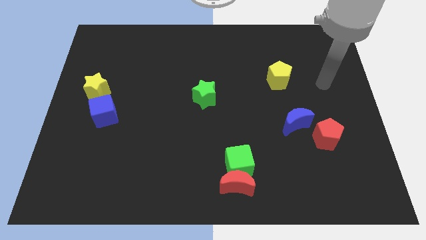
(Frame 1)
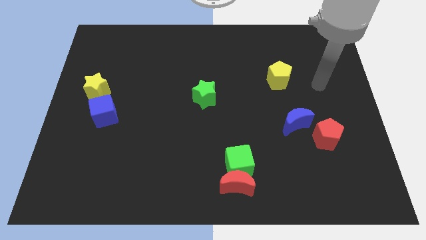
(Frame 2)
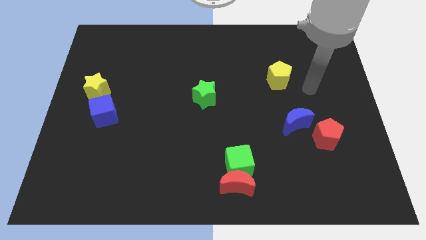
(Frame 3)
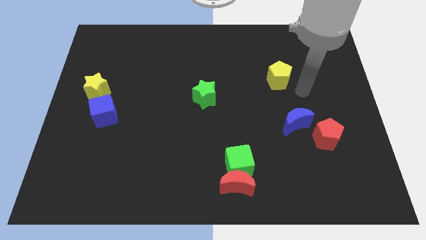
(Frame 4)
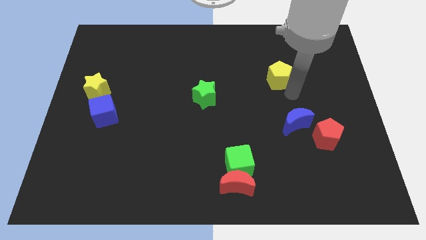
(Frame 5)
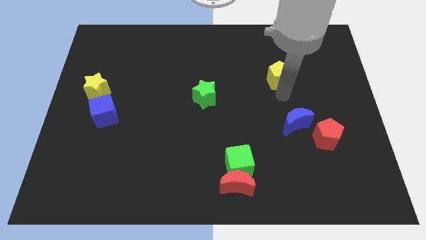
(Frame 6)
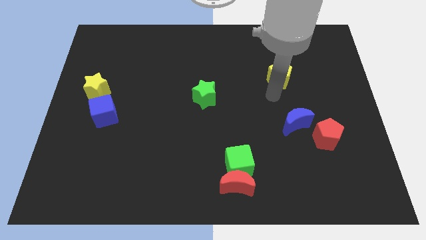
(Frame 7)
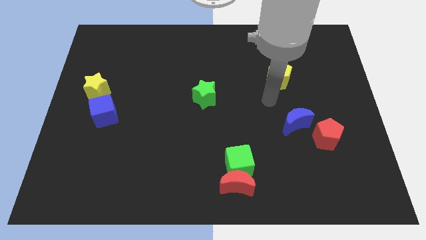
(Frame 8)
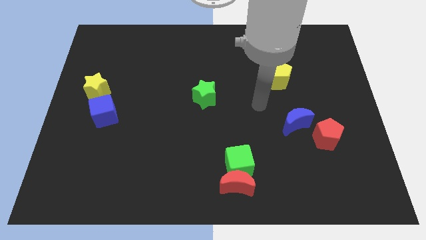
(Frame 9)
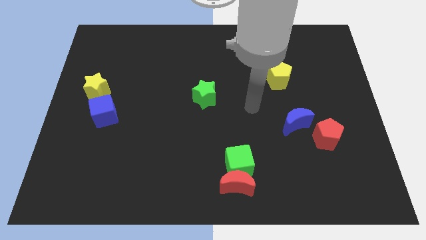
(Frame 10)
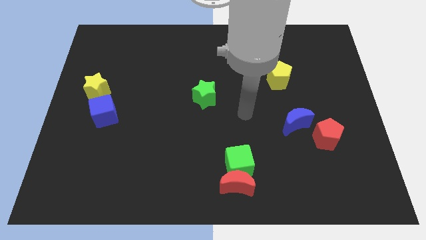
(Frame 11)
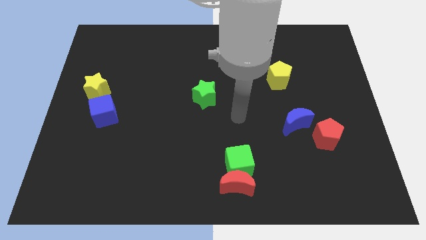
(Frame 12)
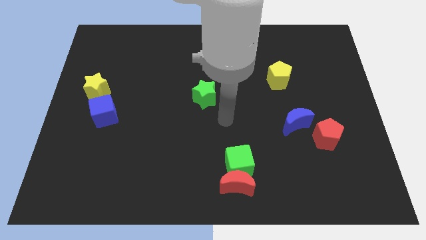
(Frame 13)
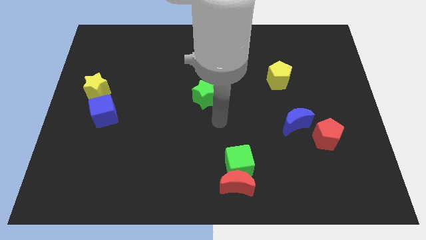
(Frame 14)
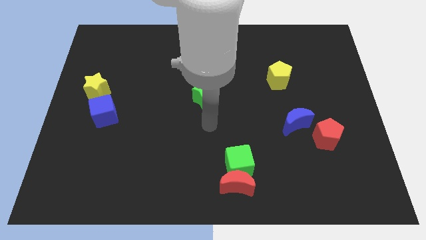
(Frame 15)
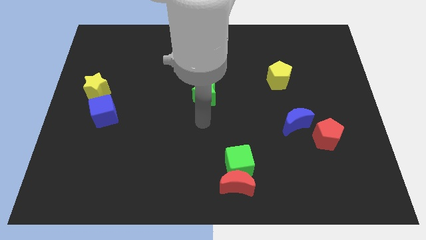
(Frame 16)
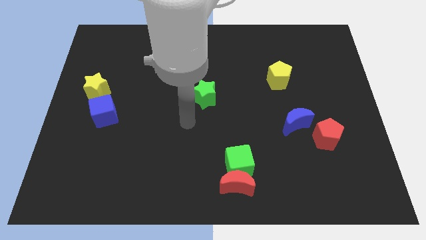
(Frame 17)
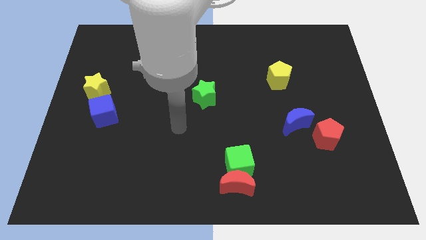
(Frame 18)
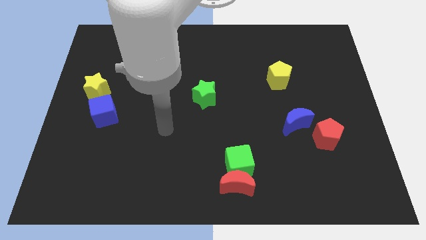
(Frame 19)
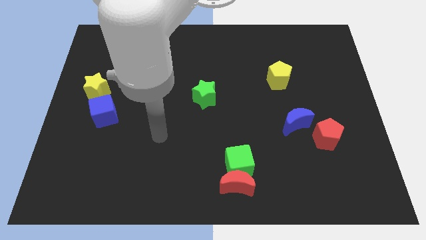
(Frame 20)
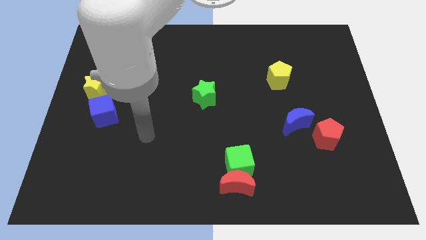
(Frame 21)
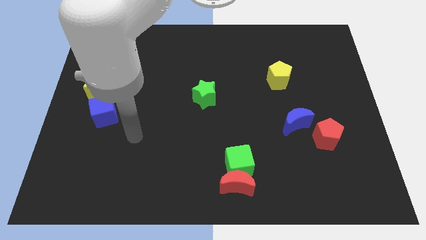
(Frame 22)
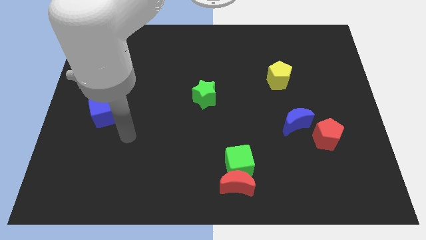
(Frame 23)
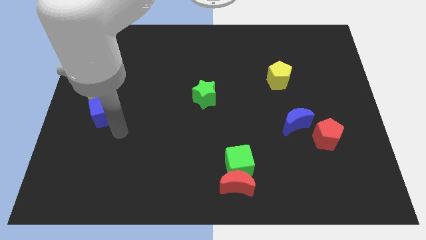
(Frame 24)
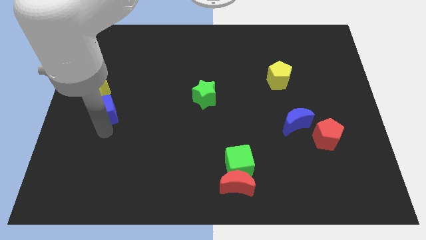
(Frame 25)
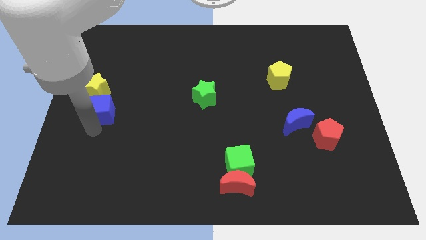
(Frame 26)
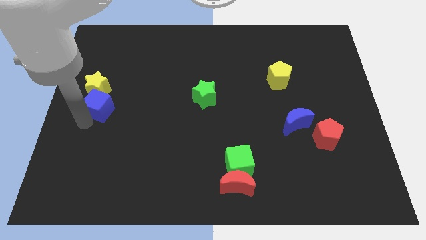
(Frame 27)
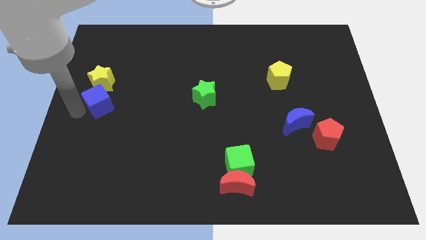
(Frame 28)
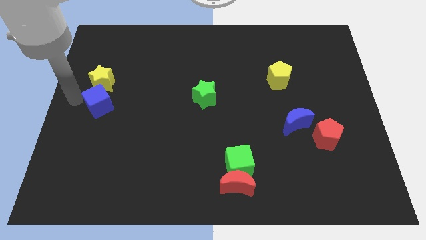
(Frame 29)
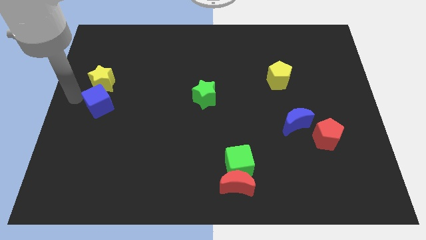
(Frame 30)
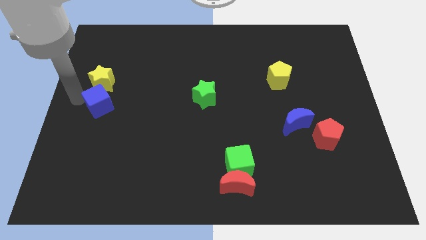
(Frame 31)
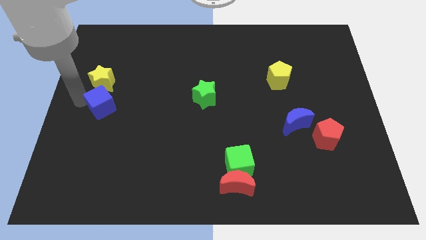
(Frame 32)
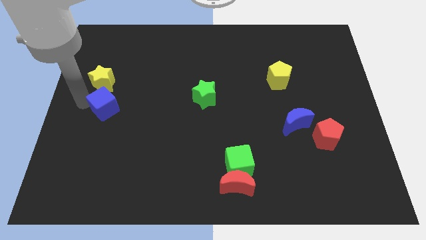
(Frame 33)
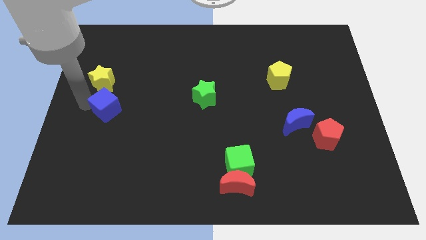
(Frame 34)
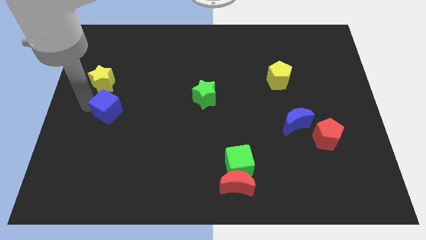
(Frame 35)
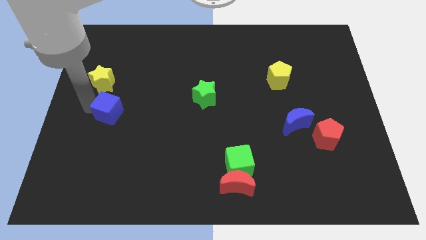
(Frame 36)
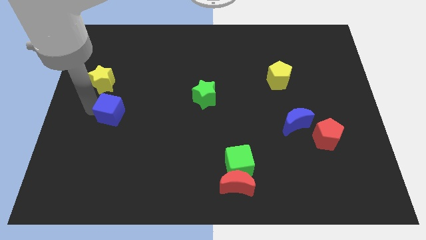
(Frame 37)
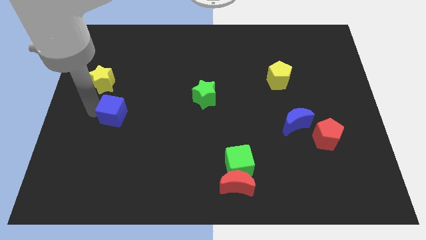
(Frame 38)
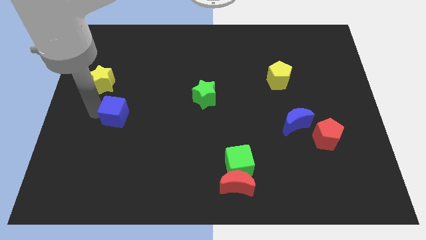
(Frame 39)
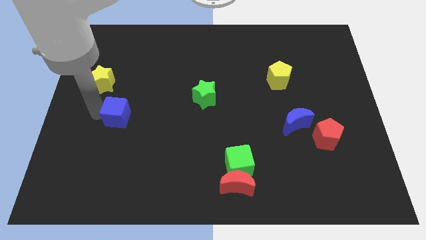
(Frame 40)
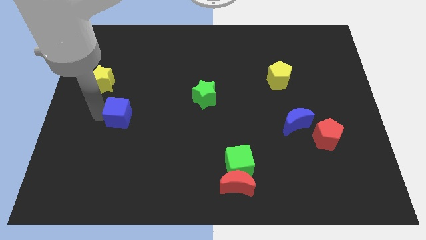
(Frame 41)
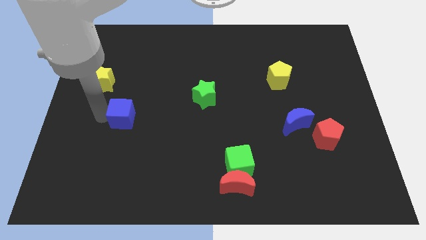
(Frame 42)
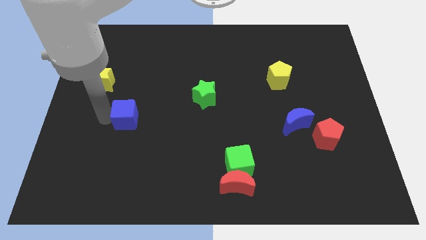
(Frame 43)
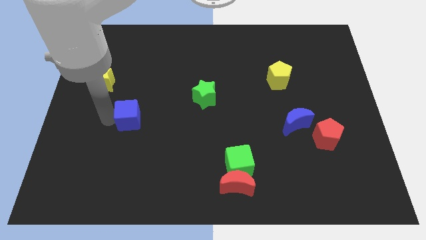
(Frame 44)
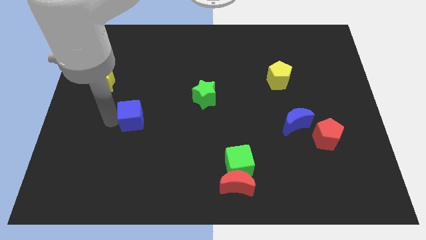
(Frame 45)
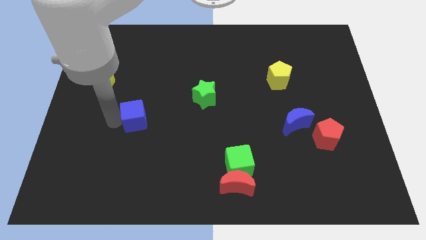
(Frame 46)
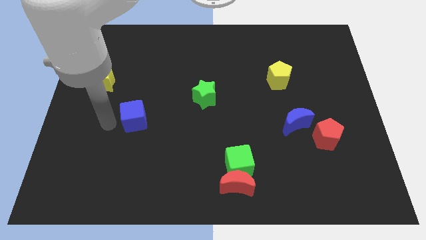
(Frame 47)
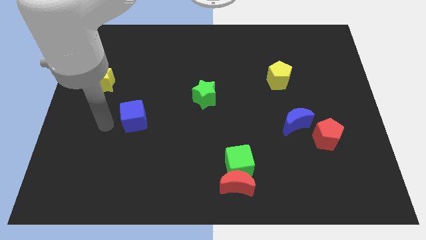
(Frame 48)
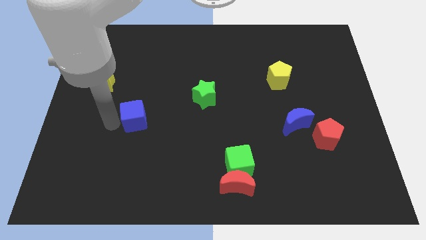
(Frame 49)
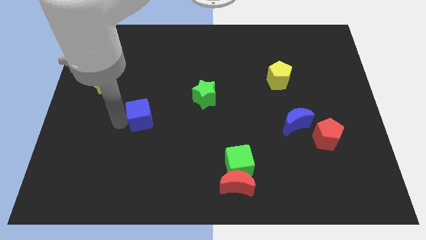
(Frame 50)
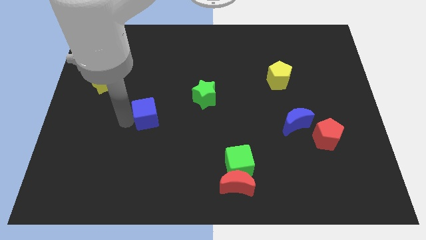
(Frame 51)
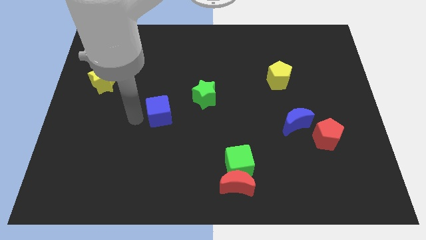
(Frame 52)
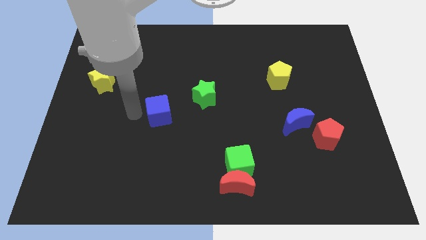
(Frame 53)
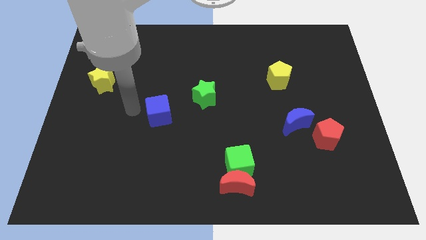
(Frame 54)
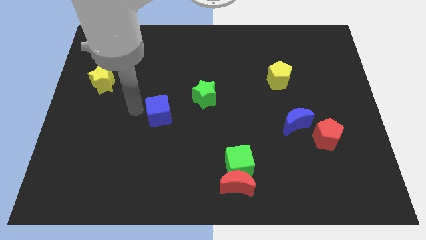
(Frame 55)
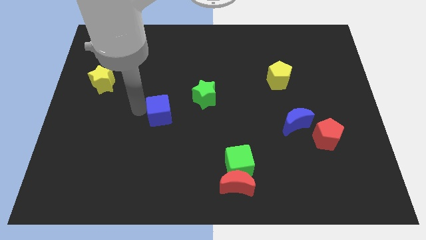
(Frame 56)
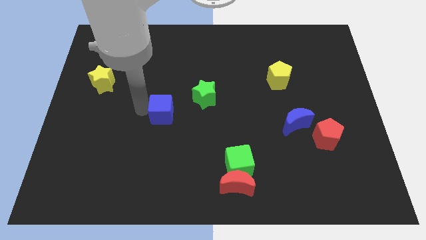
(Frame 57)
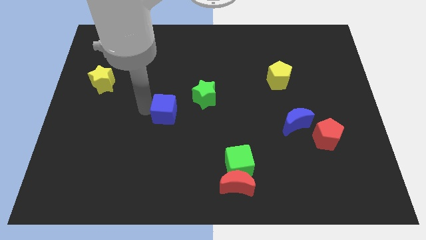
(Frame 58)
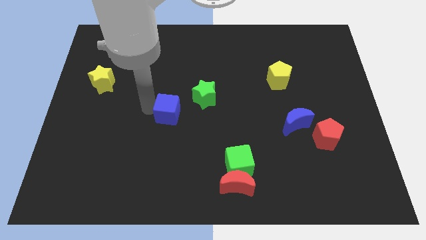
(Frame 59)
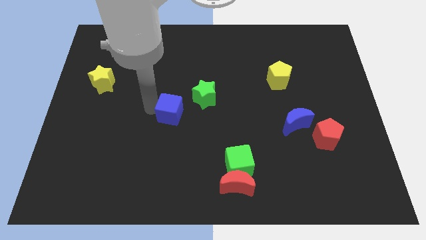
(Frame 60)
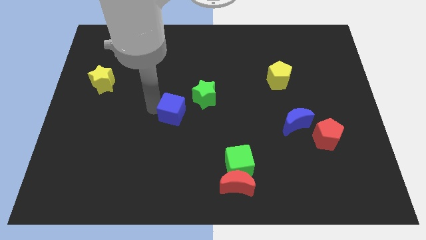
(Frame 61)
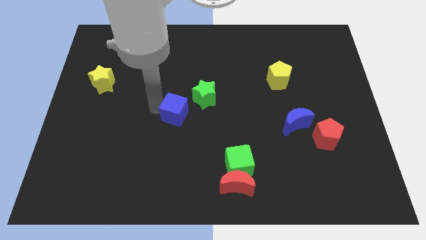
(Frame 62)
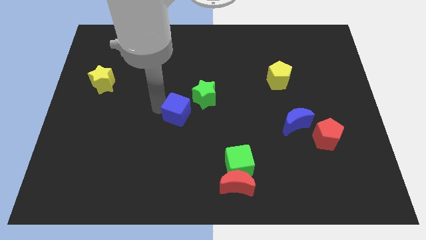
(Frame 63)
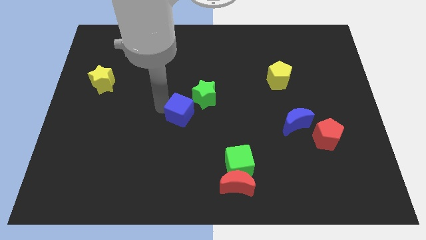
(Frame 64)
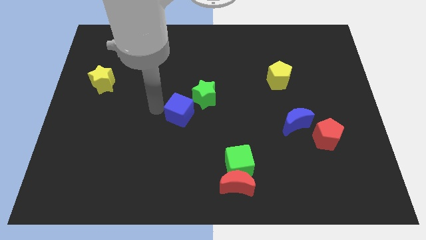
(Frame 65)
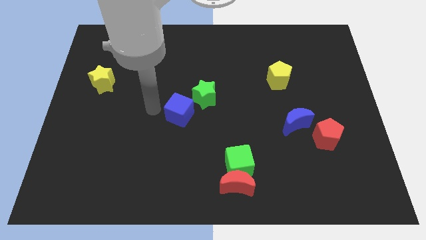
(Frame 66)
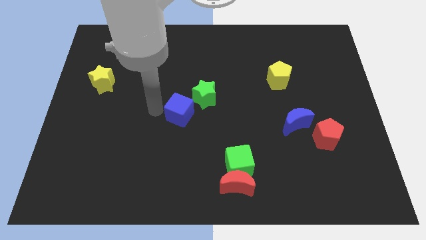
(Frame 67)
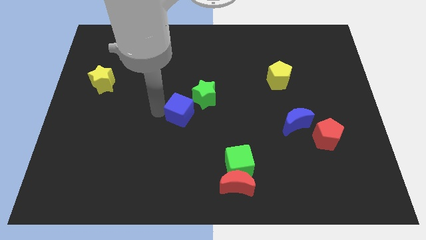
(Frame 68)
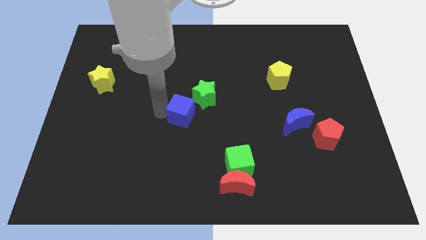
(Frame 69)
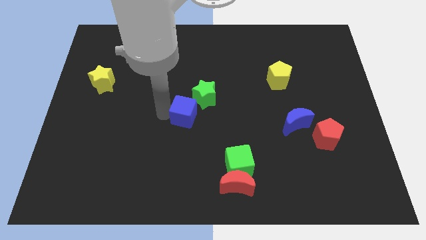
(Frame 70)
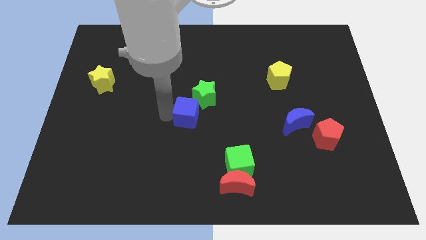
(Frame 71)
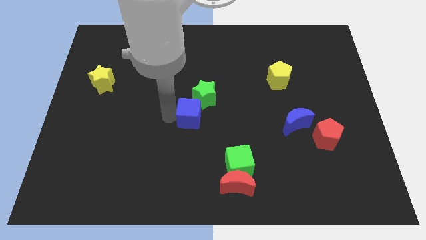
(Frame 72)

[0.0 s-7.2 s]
slide the blue cube to the right

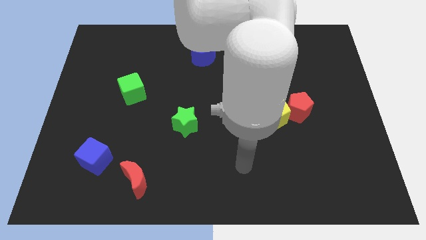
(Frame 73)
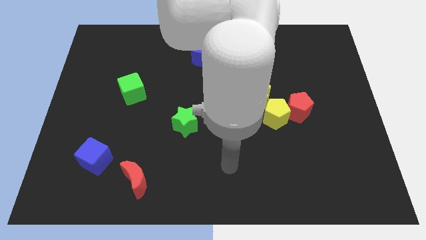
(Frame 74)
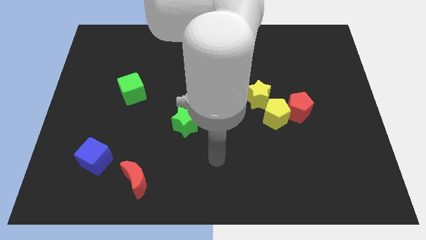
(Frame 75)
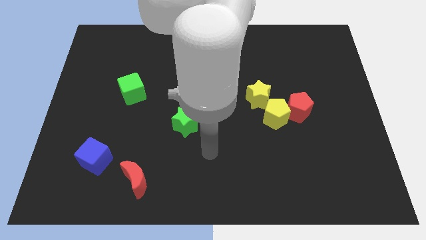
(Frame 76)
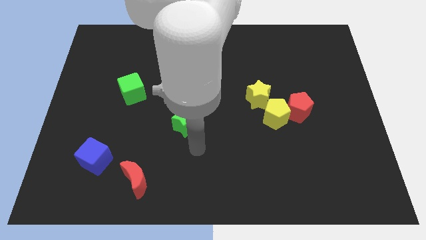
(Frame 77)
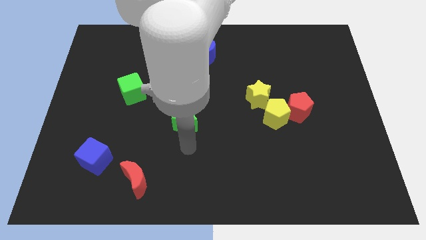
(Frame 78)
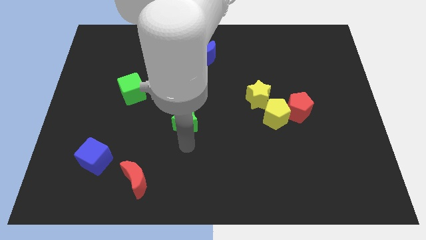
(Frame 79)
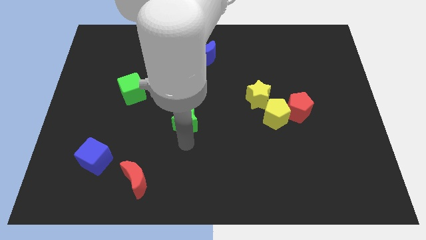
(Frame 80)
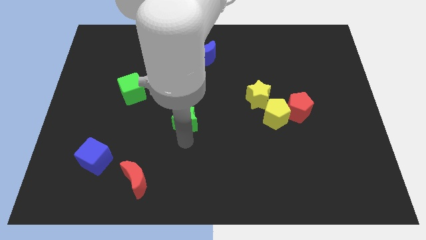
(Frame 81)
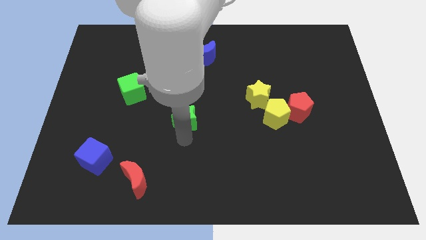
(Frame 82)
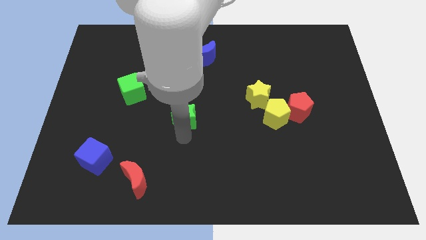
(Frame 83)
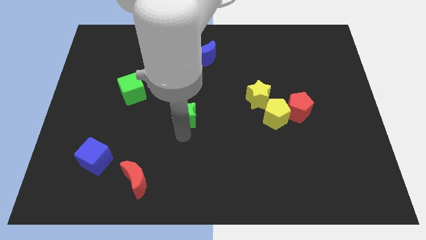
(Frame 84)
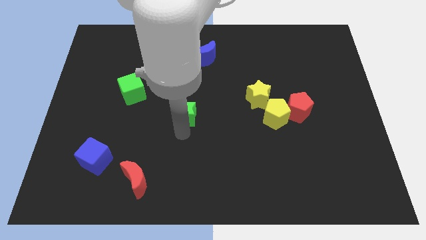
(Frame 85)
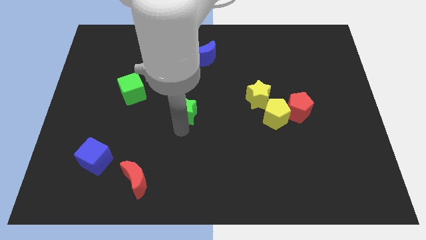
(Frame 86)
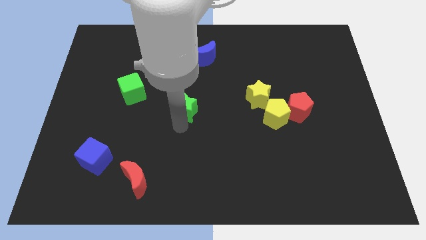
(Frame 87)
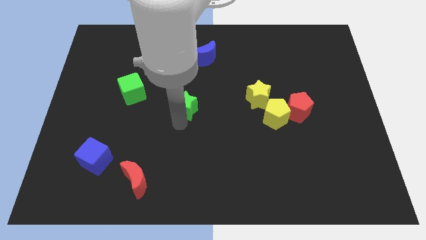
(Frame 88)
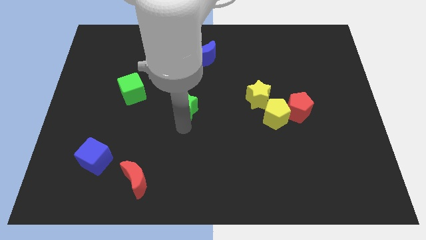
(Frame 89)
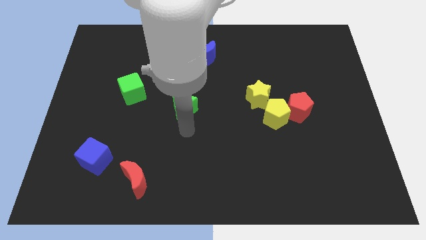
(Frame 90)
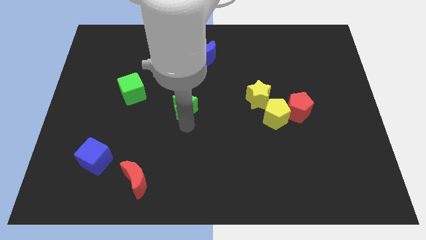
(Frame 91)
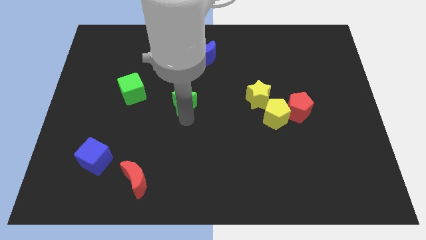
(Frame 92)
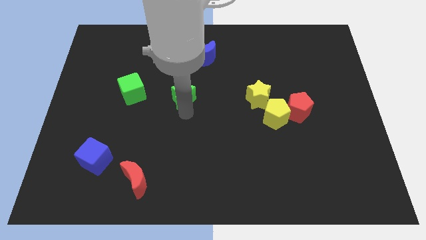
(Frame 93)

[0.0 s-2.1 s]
push the green star a little up
